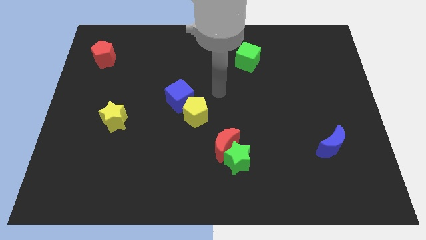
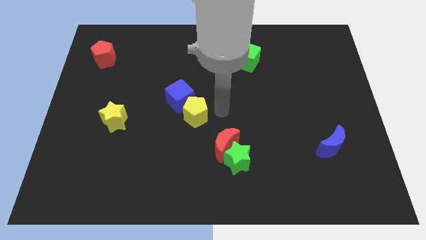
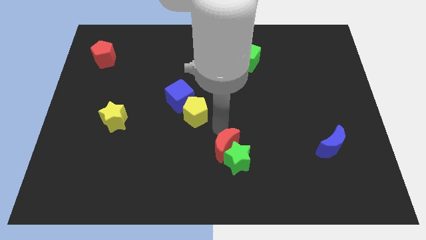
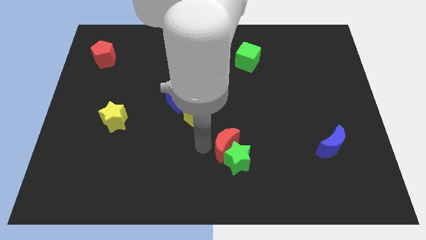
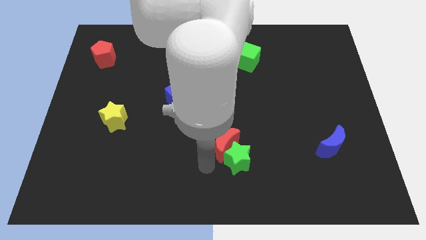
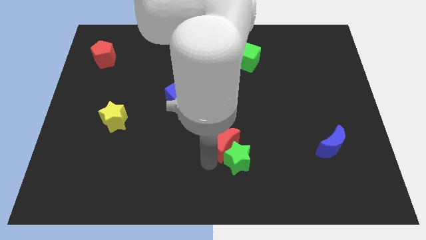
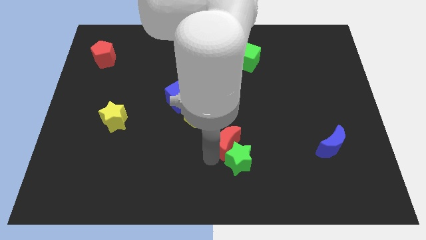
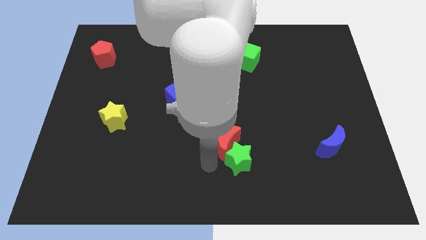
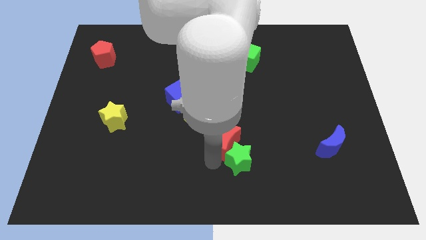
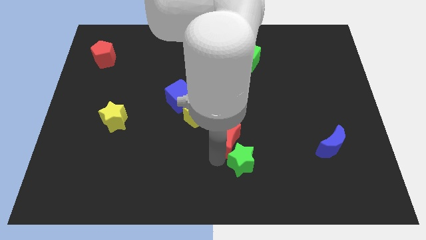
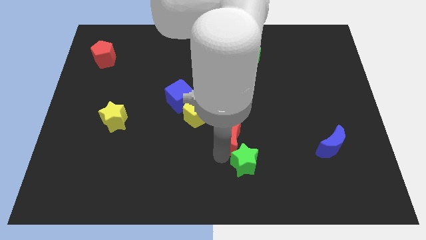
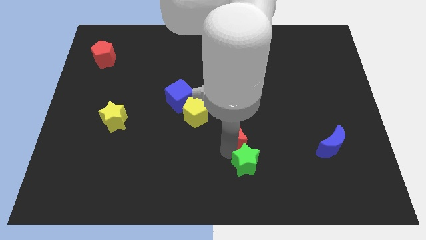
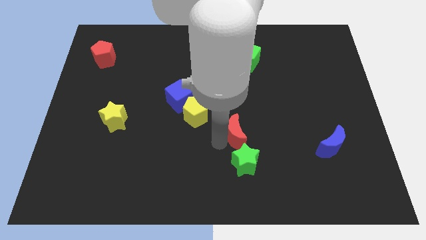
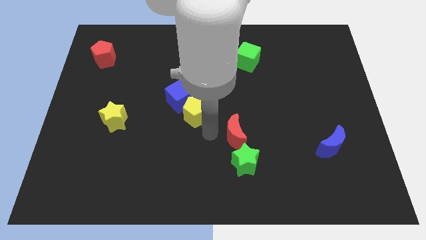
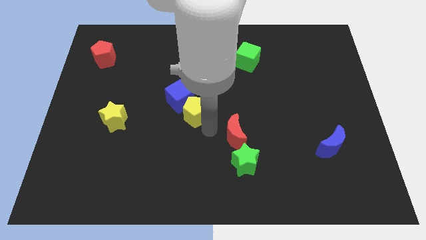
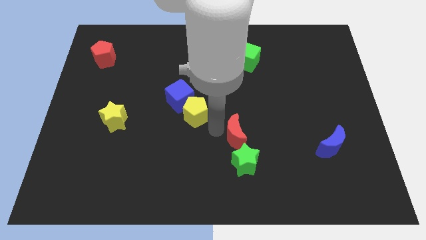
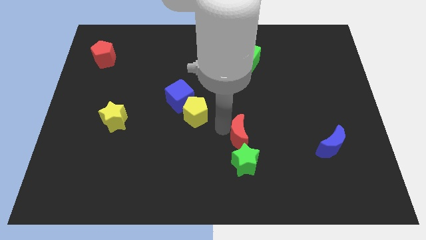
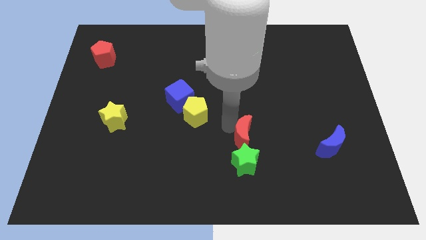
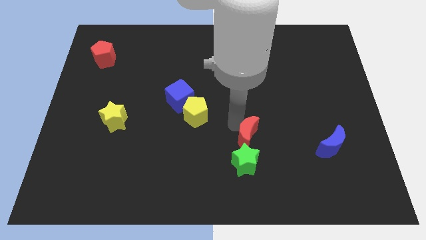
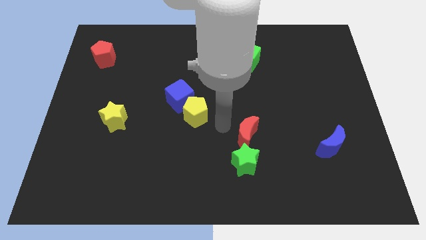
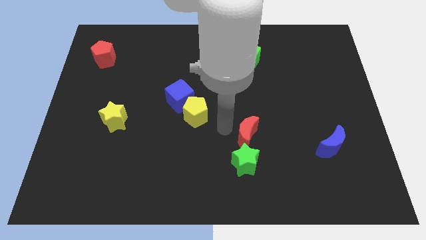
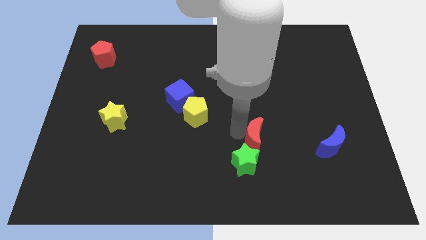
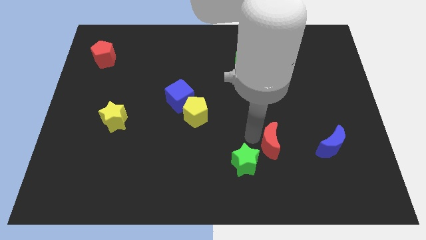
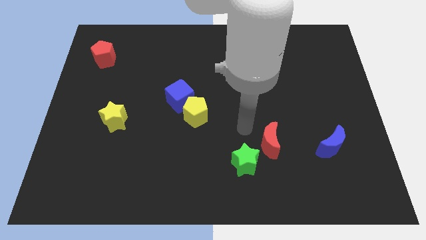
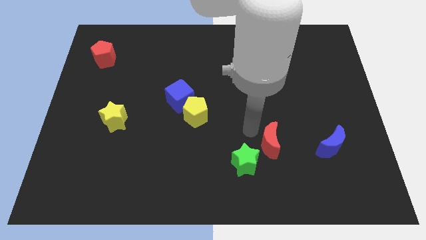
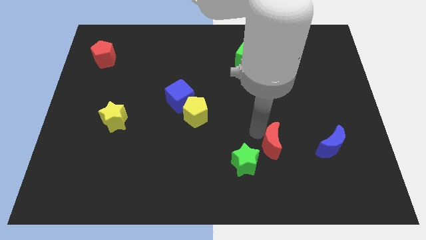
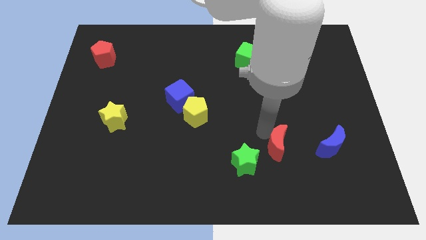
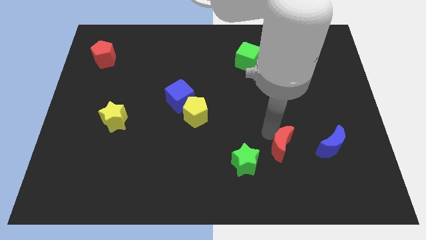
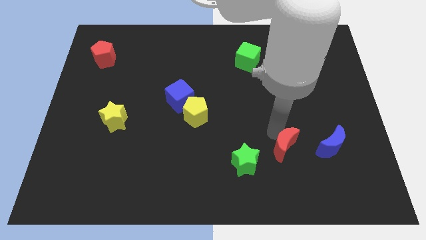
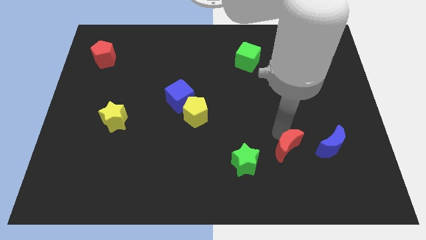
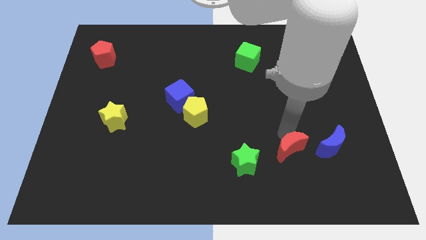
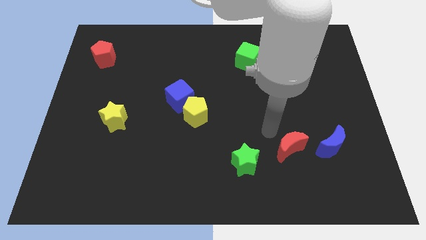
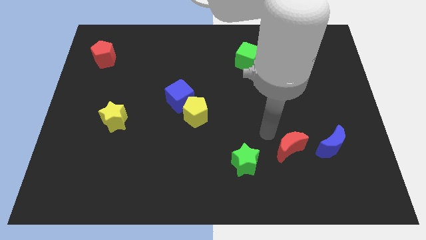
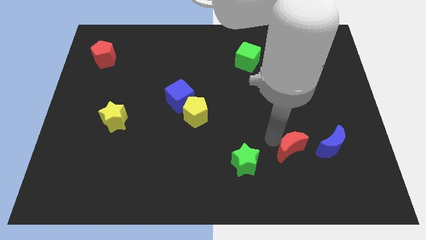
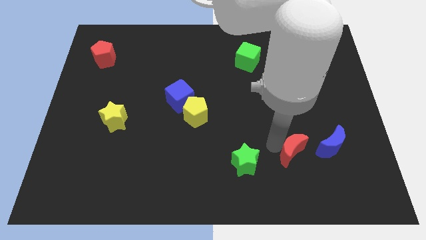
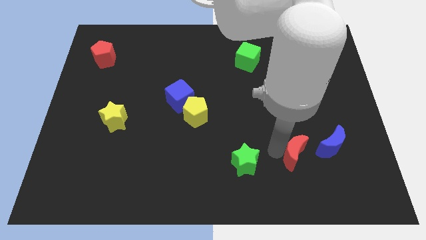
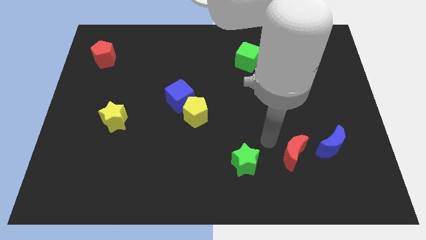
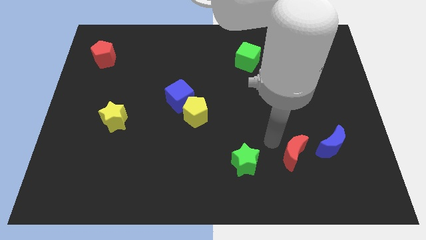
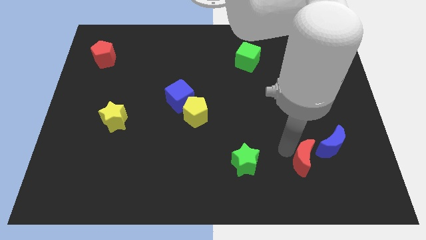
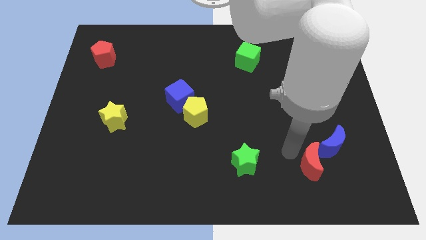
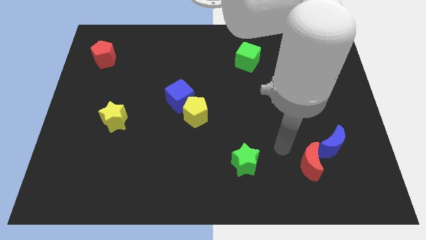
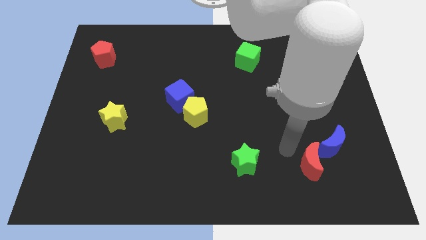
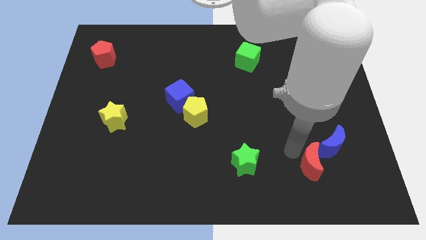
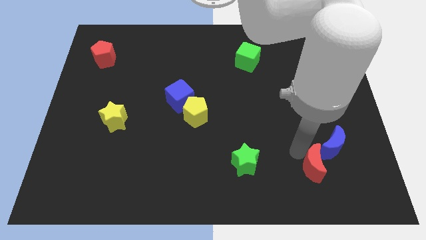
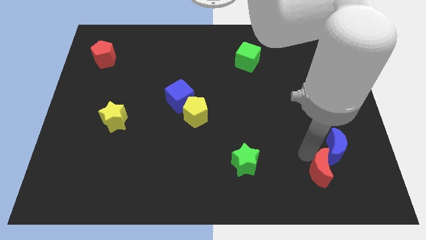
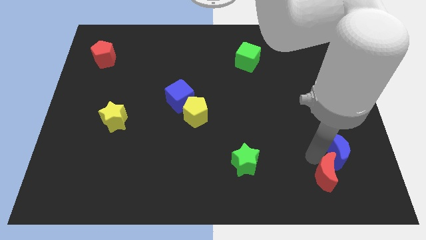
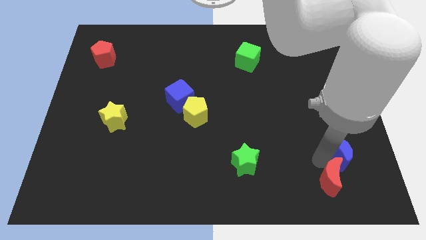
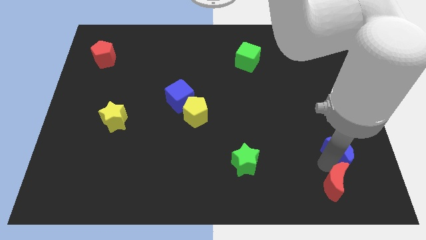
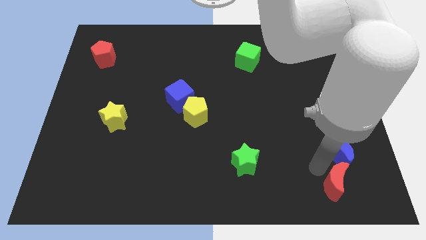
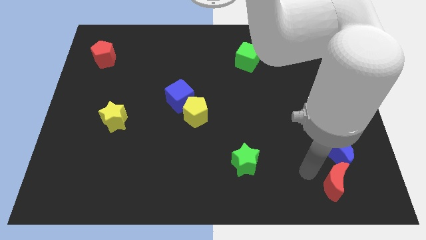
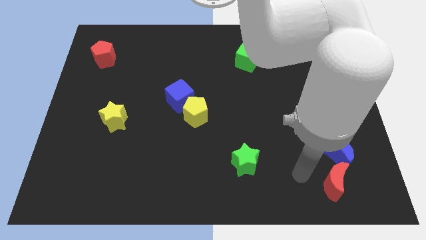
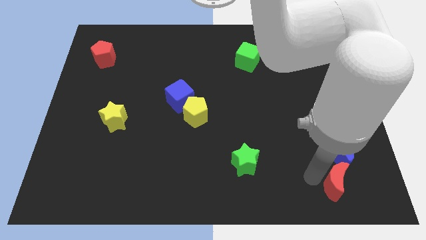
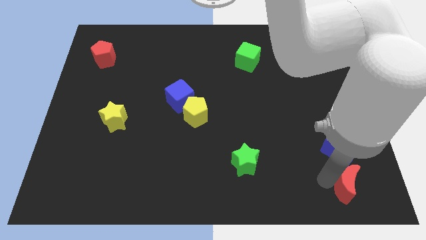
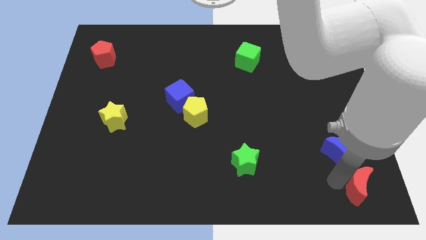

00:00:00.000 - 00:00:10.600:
move the red moon to the lower right corner

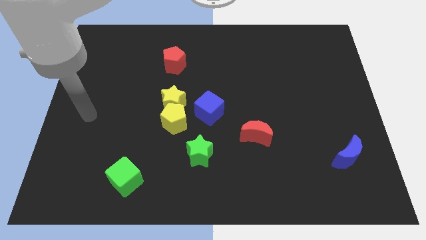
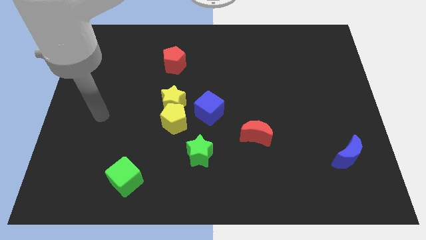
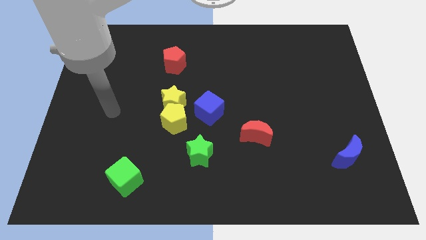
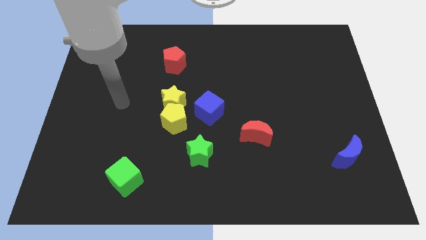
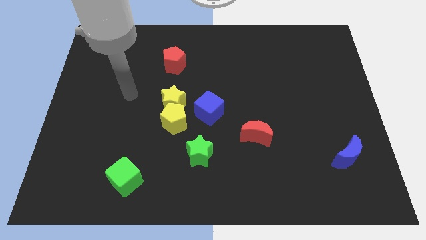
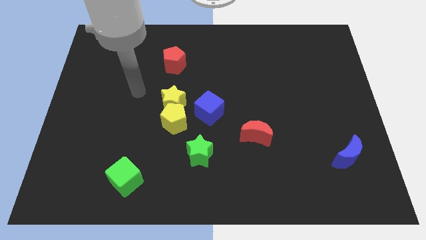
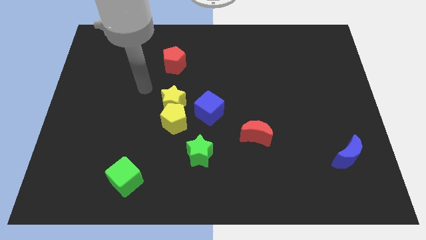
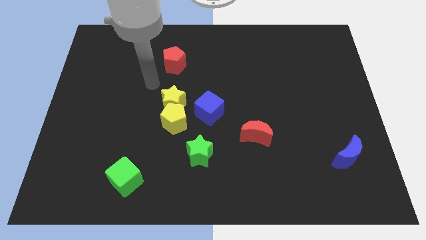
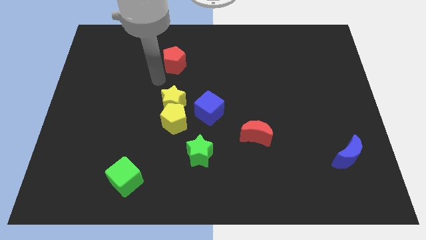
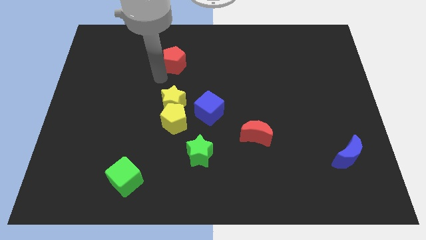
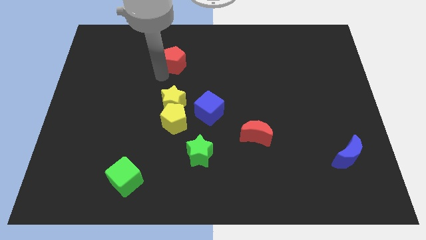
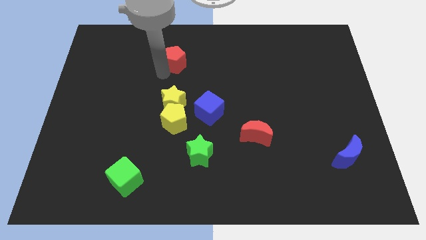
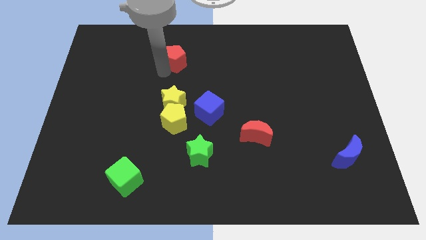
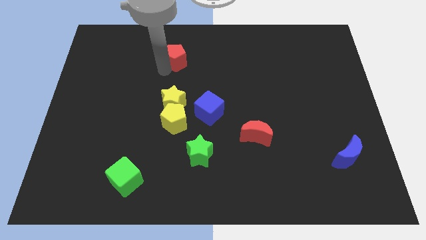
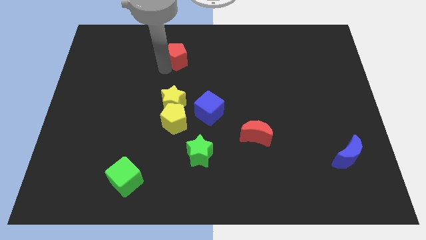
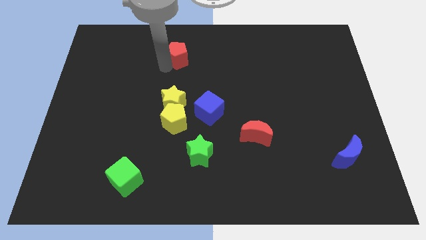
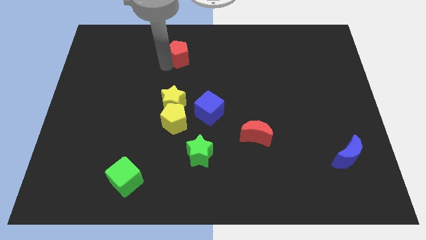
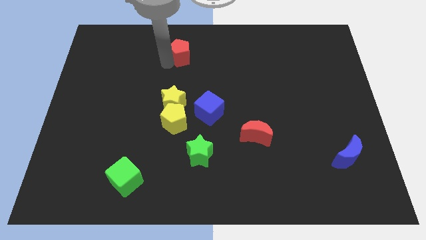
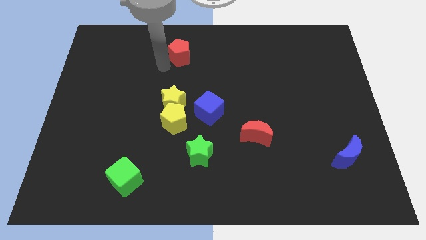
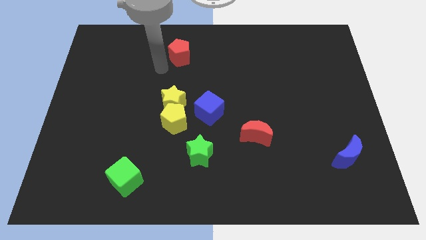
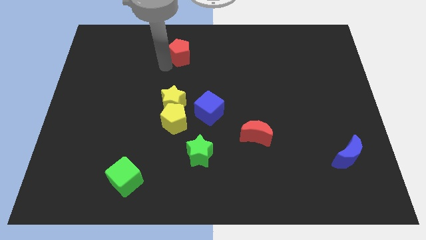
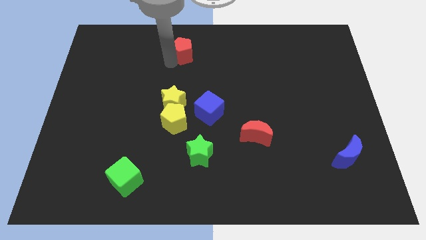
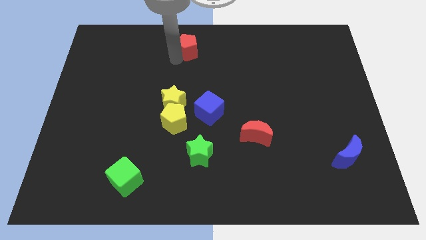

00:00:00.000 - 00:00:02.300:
push the red pentagon to the top side
